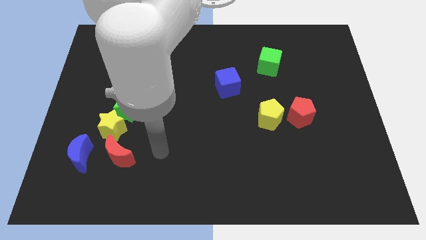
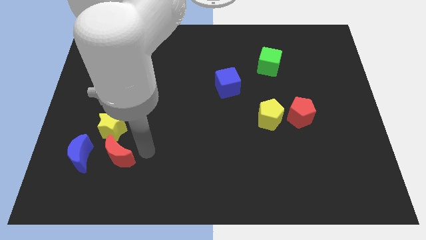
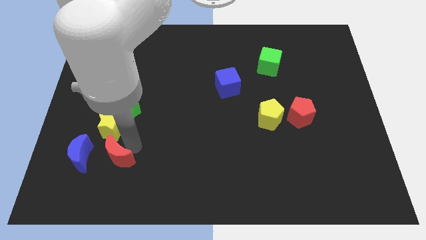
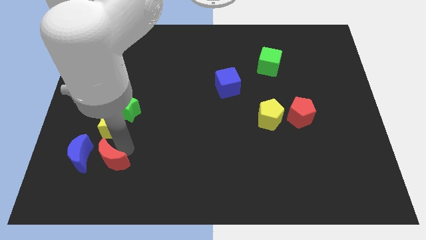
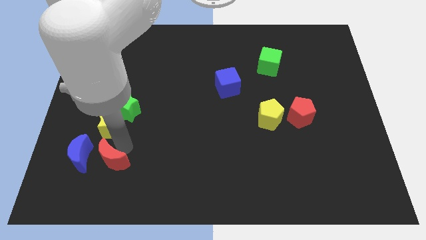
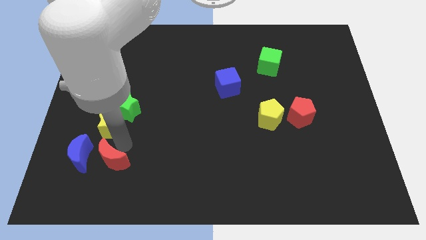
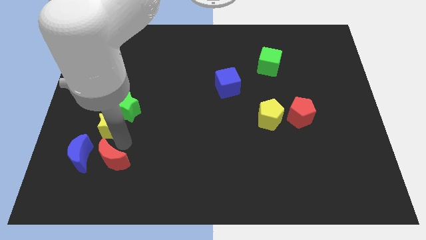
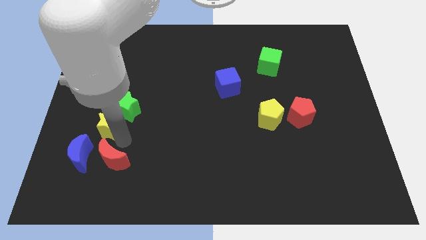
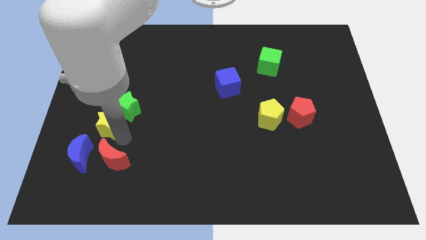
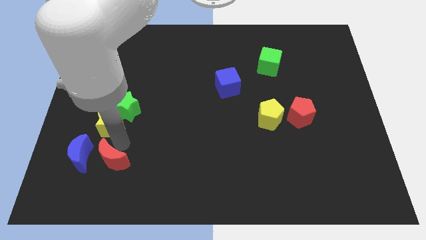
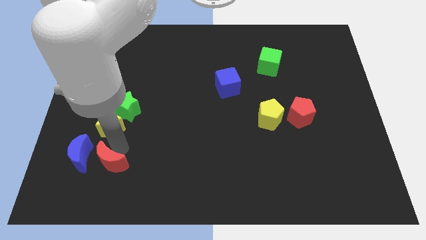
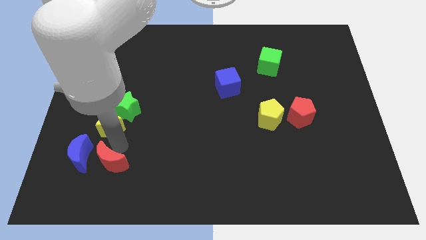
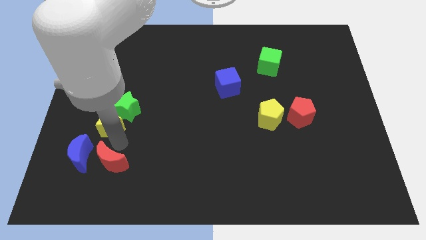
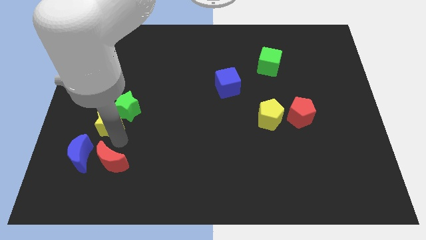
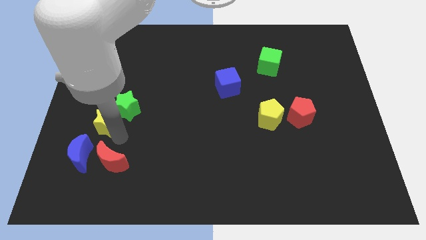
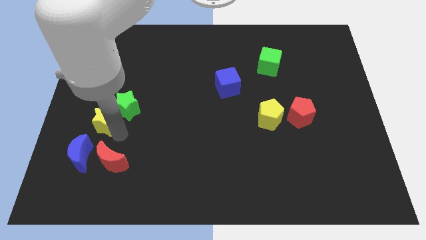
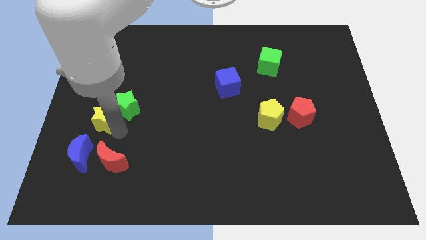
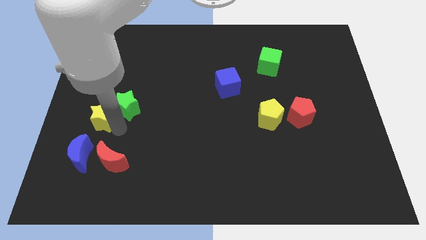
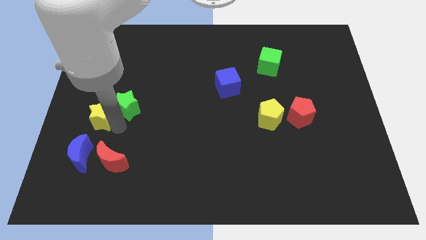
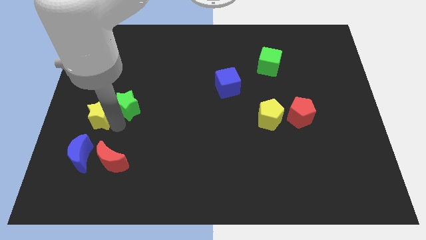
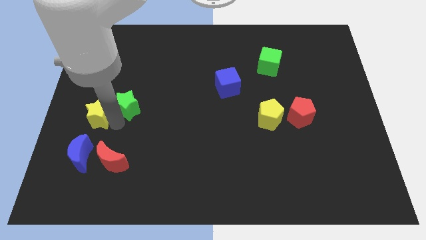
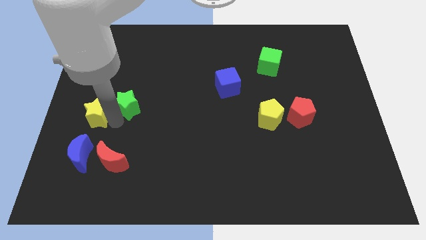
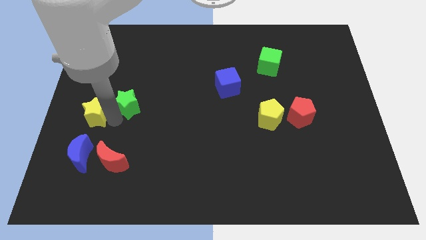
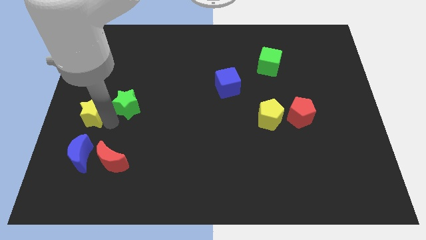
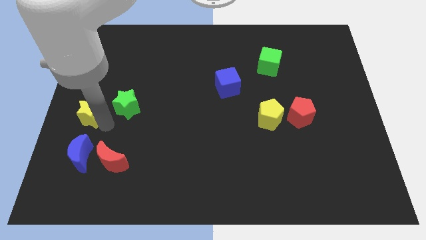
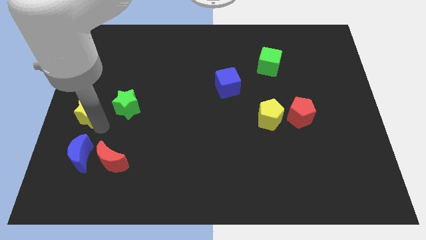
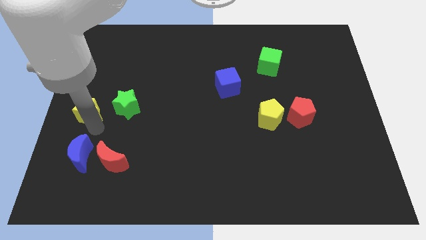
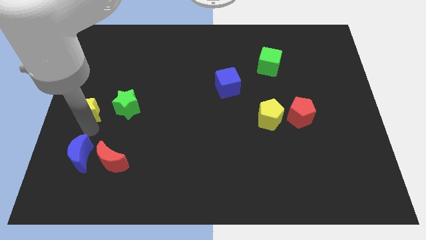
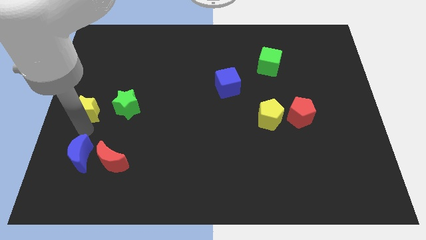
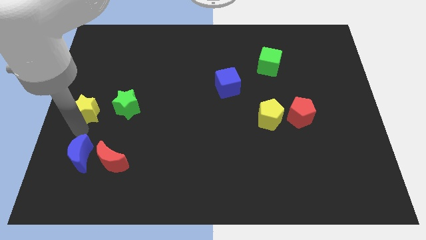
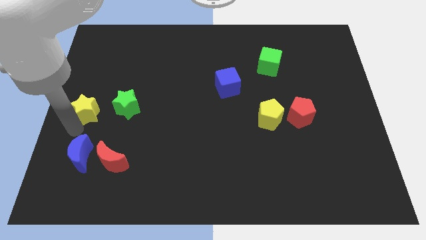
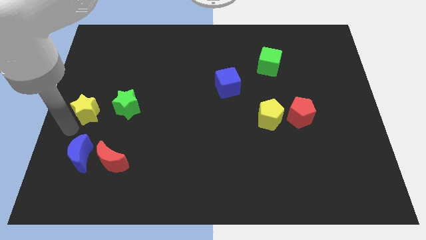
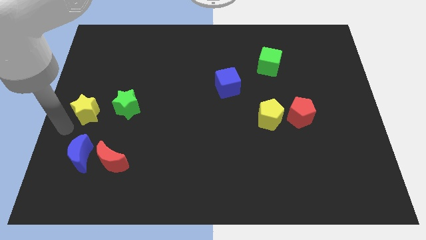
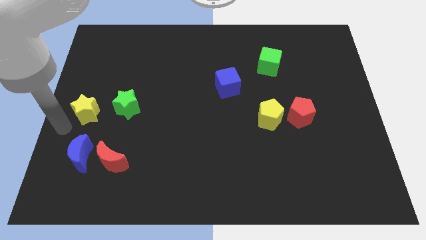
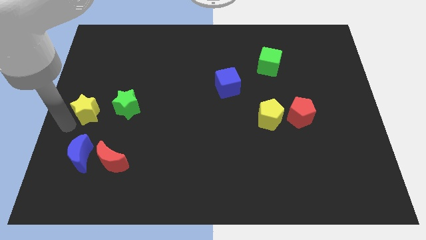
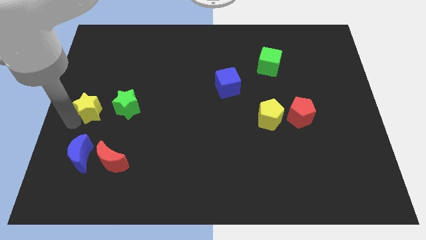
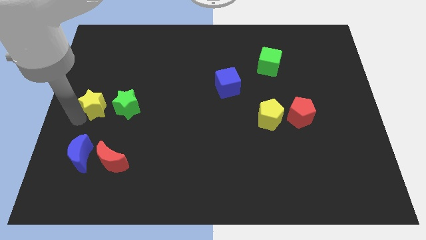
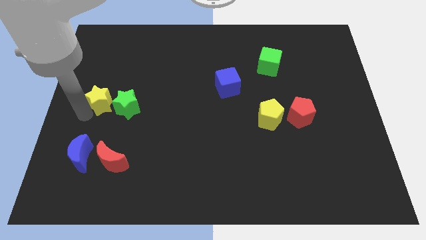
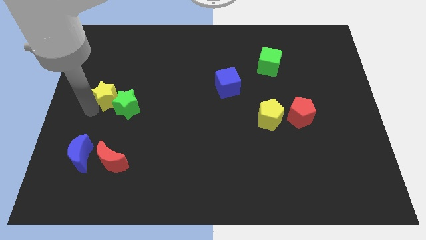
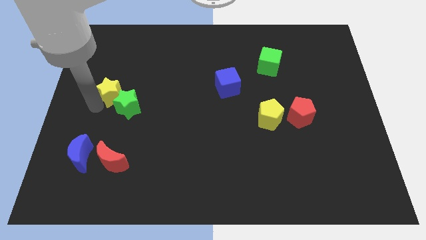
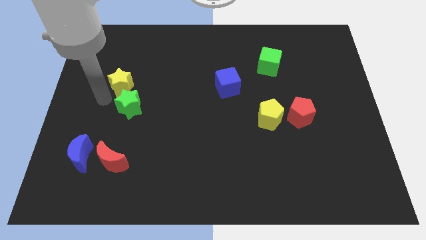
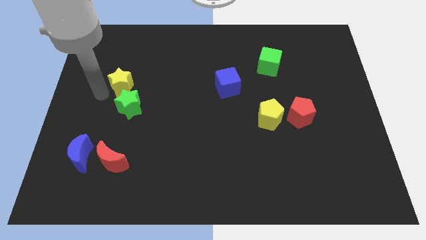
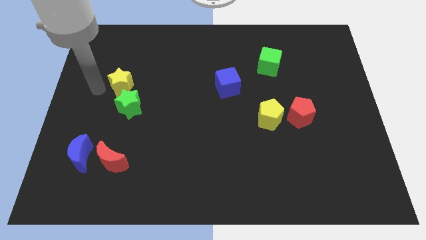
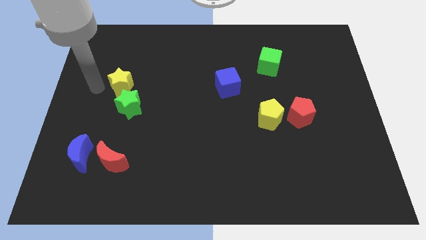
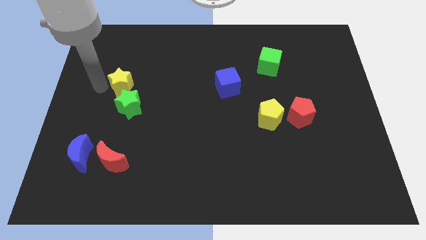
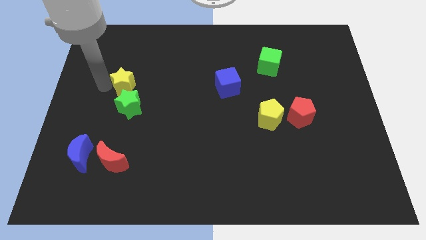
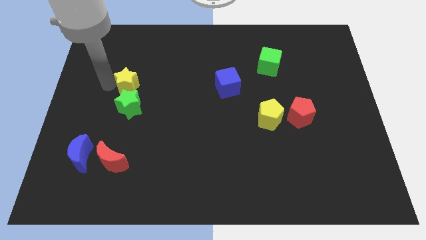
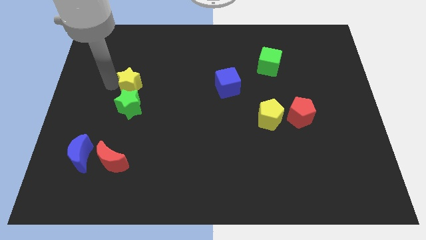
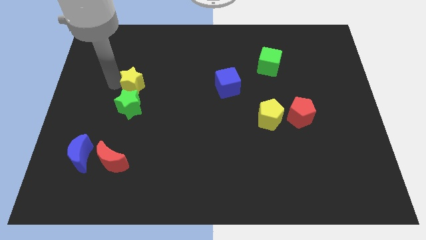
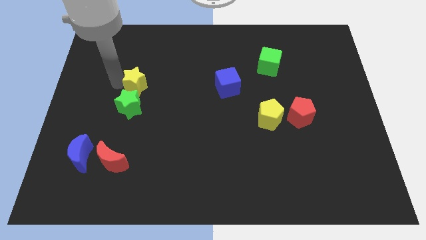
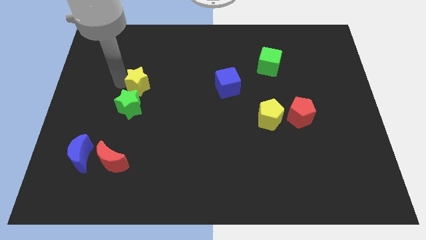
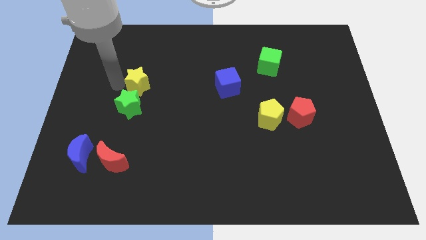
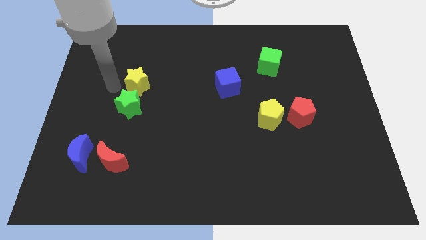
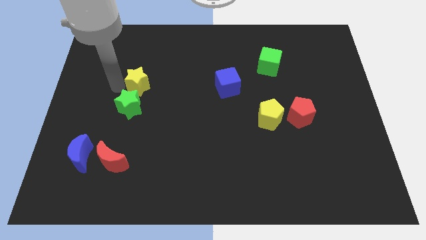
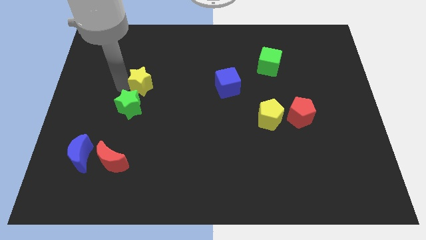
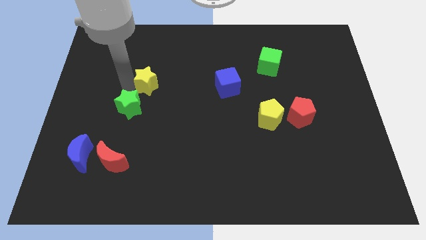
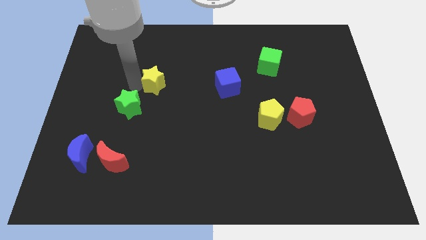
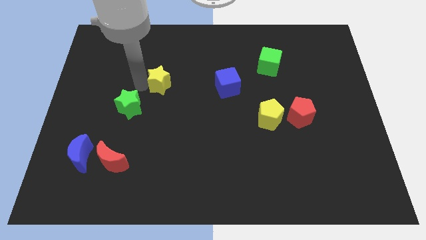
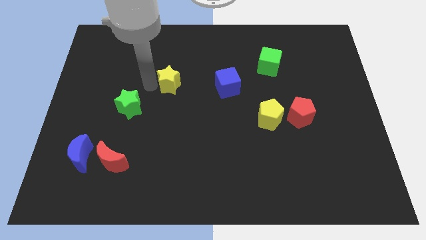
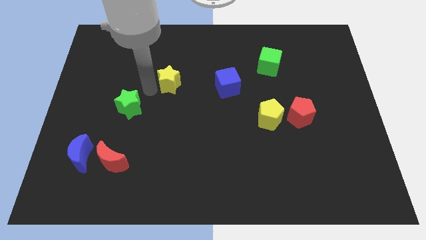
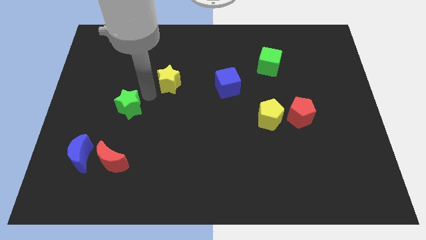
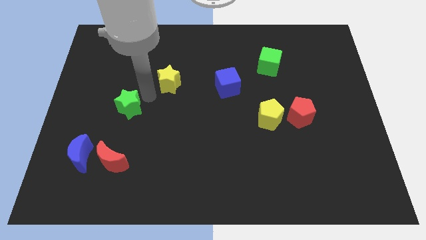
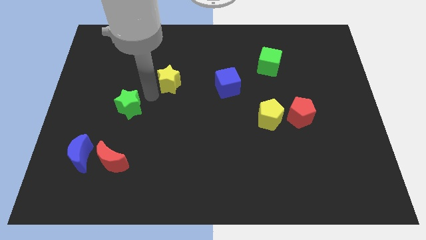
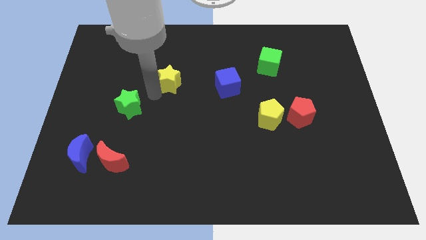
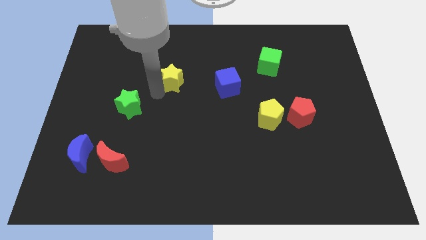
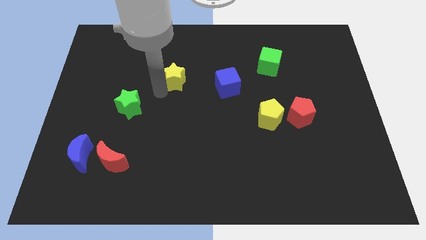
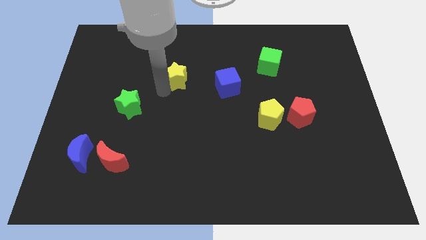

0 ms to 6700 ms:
push the yellow star up and right diagonally

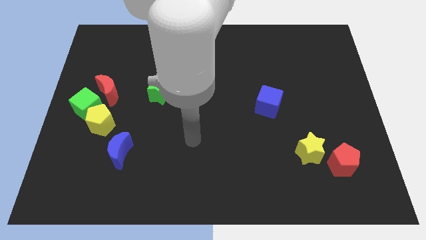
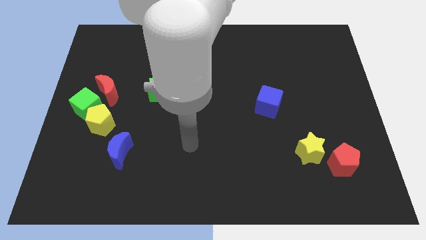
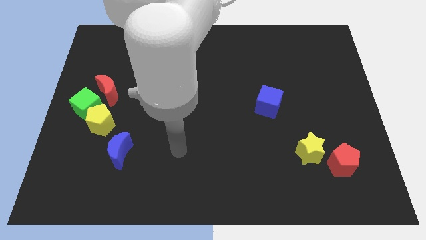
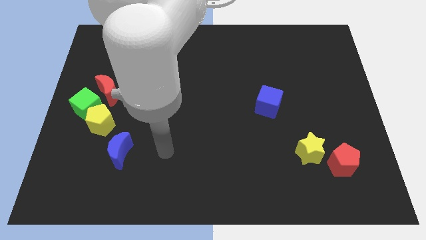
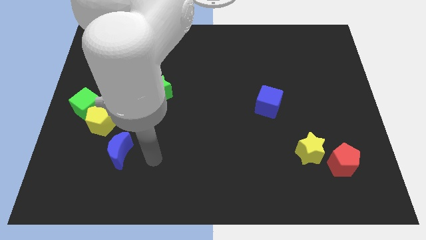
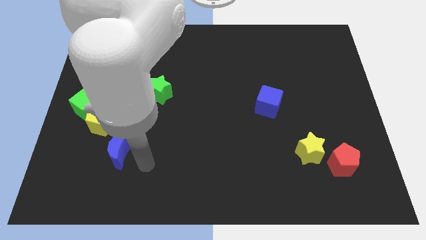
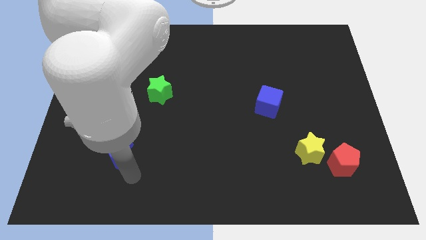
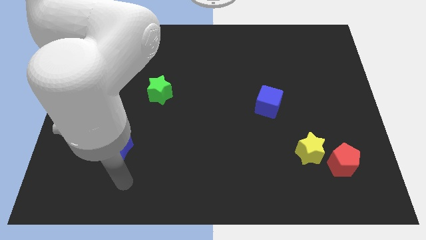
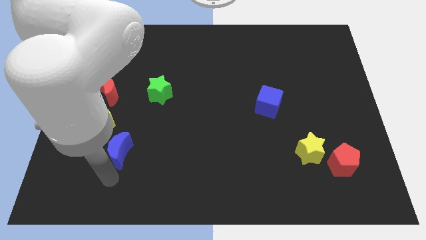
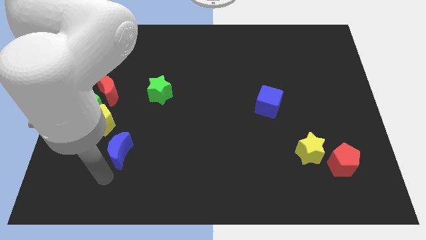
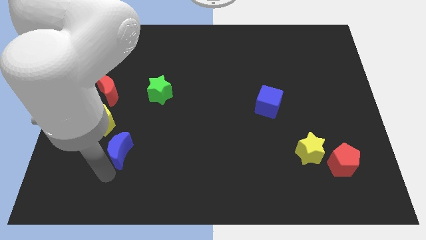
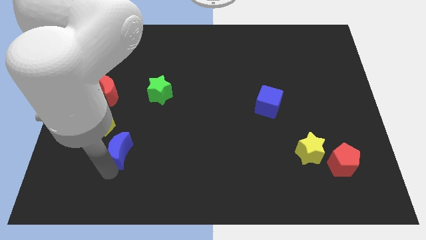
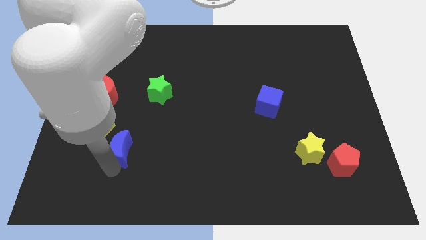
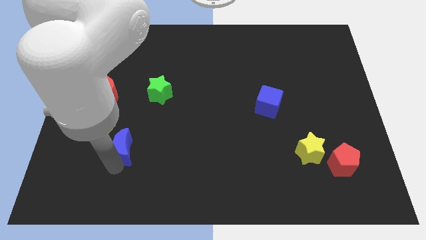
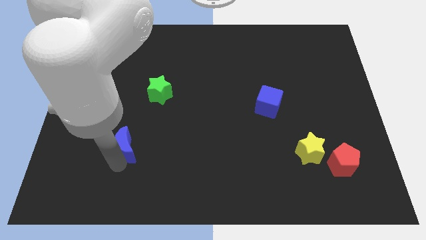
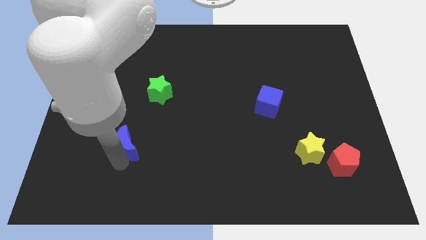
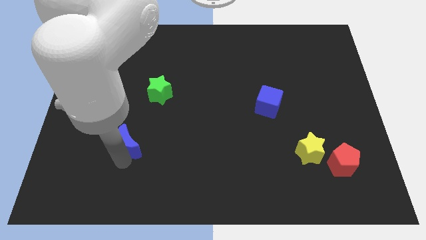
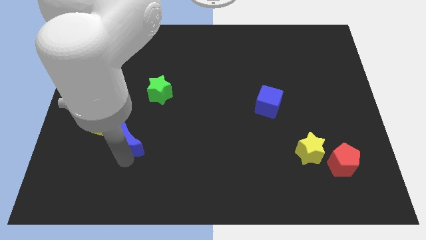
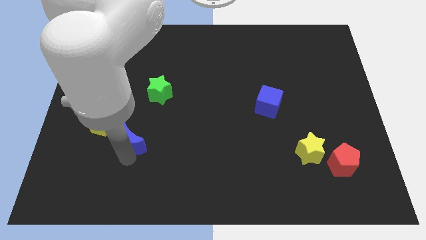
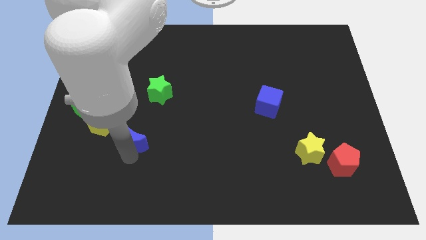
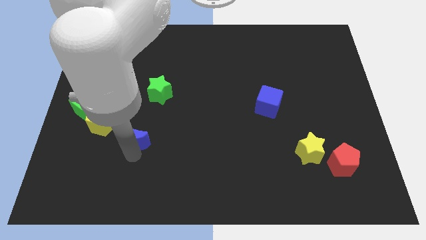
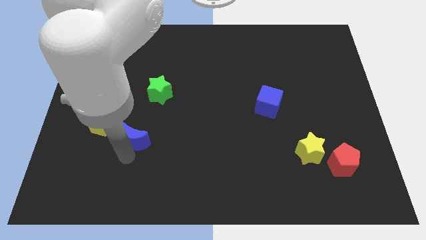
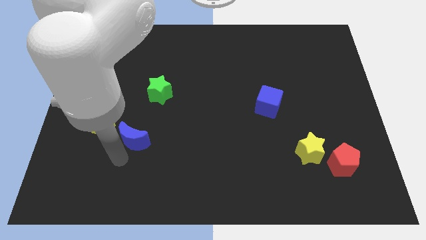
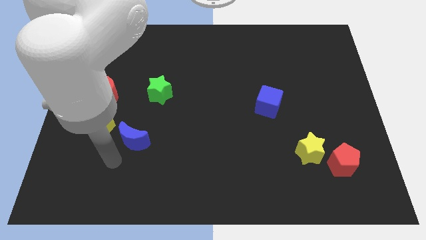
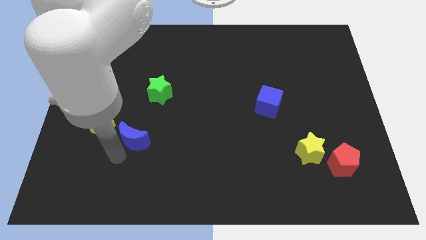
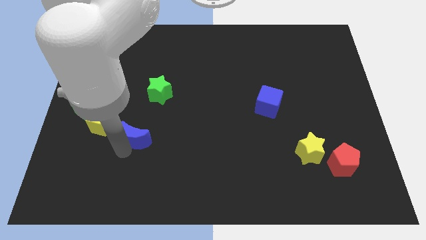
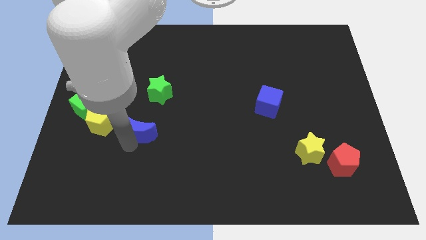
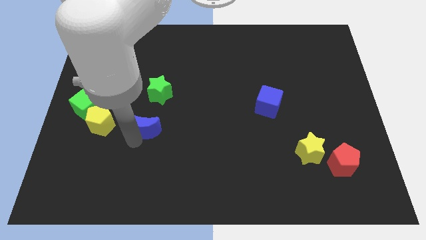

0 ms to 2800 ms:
push the blue moon a little up and right diagonally
